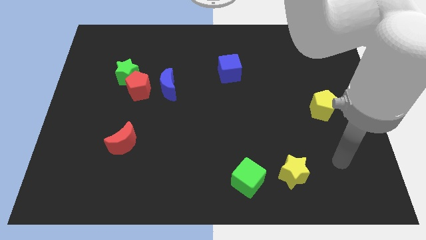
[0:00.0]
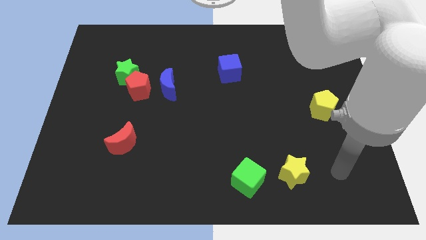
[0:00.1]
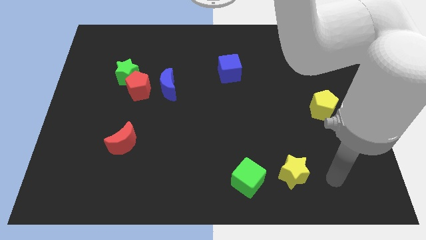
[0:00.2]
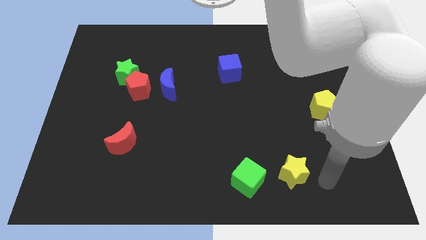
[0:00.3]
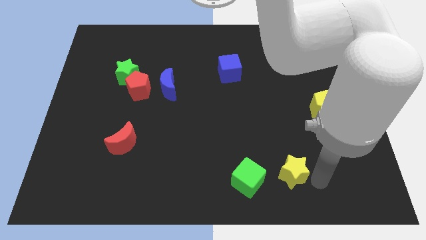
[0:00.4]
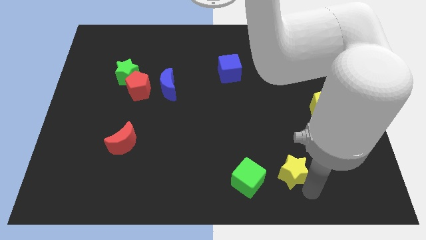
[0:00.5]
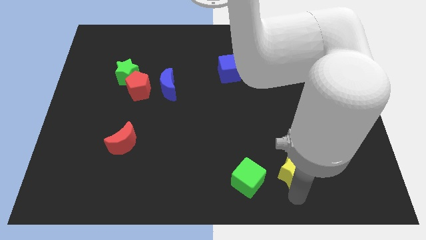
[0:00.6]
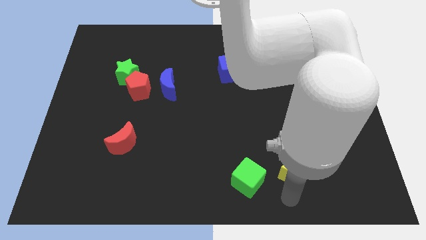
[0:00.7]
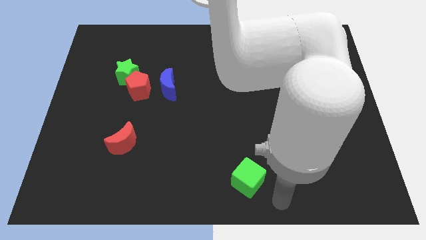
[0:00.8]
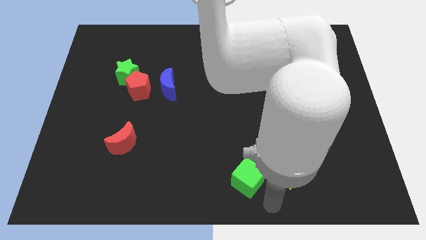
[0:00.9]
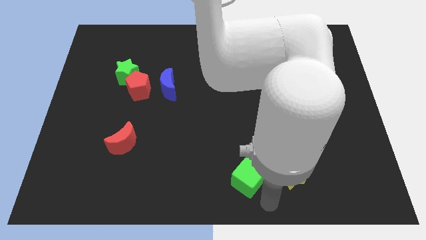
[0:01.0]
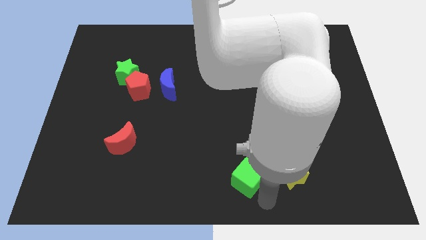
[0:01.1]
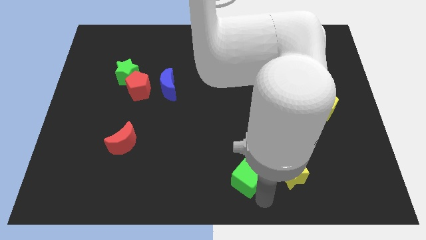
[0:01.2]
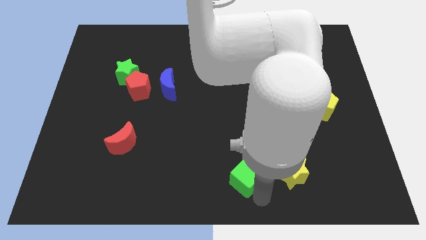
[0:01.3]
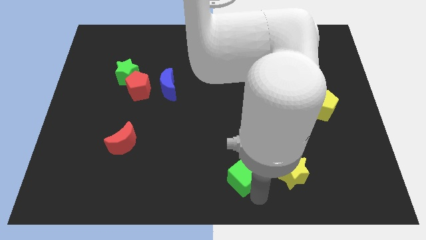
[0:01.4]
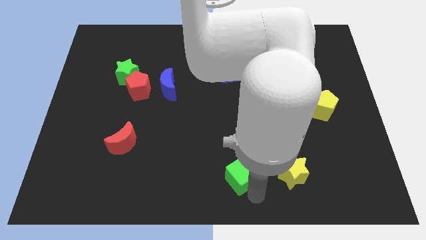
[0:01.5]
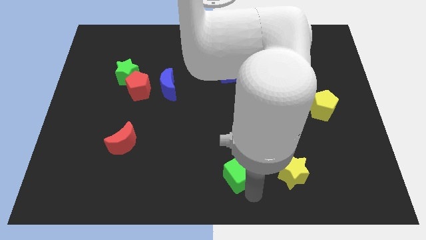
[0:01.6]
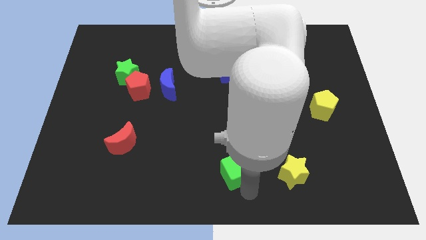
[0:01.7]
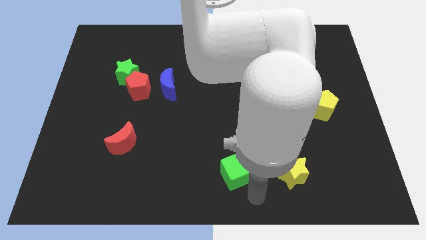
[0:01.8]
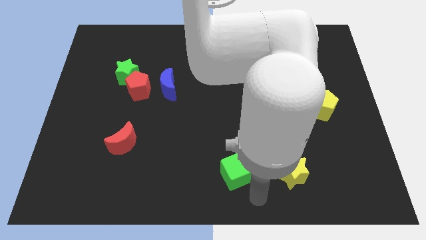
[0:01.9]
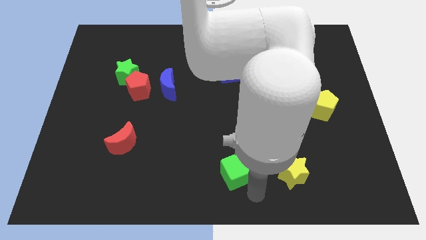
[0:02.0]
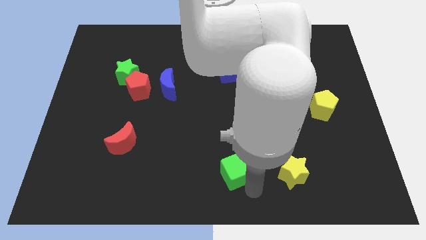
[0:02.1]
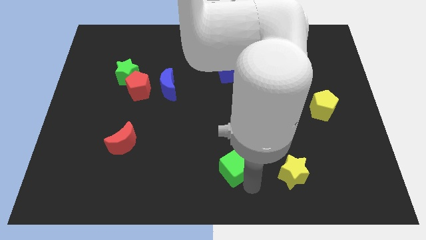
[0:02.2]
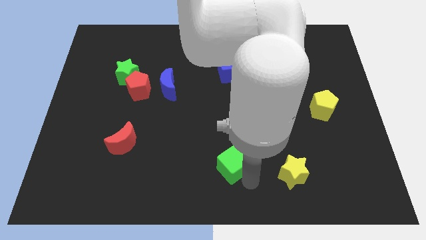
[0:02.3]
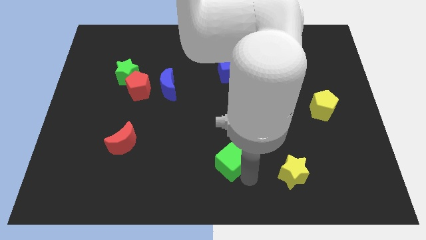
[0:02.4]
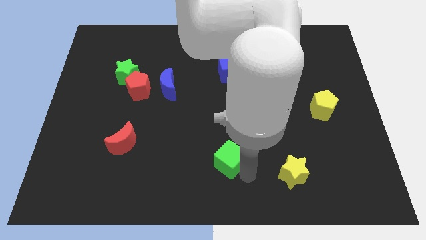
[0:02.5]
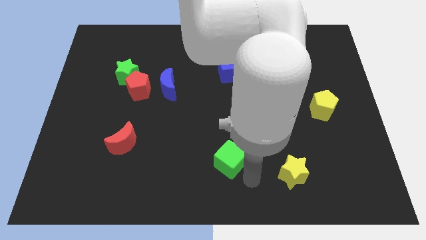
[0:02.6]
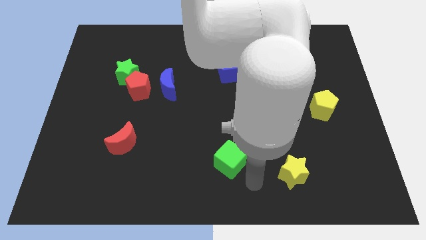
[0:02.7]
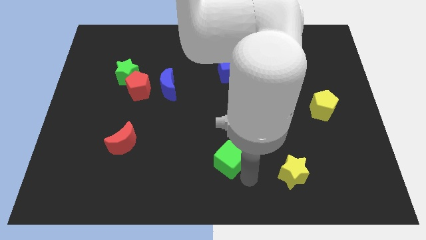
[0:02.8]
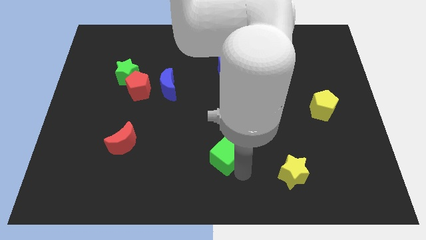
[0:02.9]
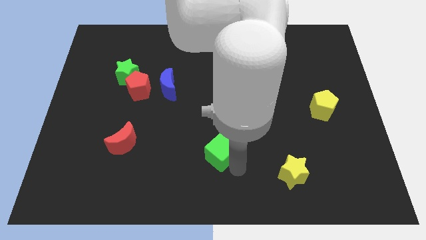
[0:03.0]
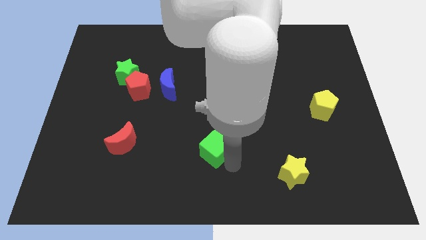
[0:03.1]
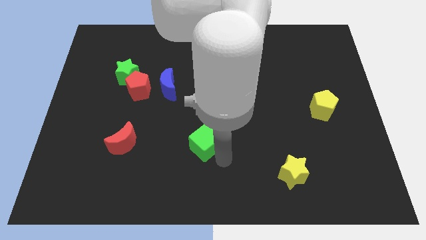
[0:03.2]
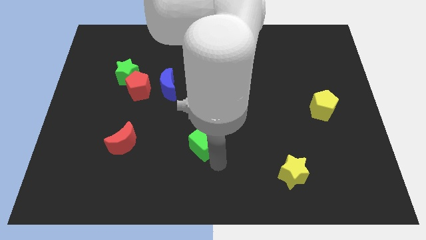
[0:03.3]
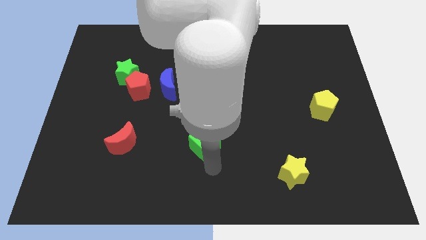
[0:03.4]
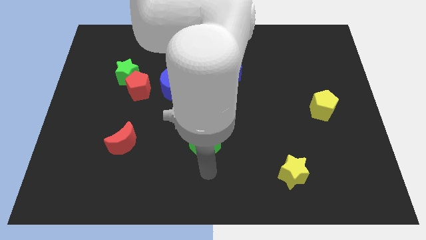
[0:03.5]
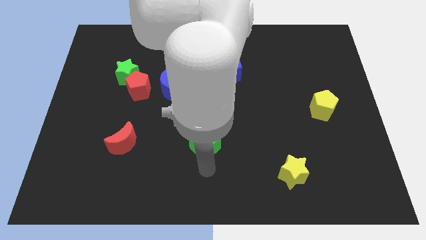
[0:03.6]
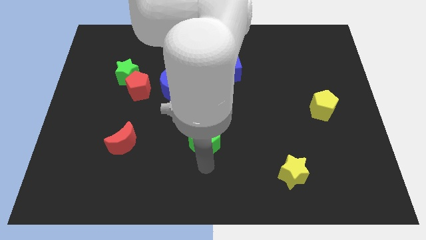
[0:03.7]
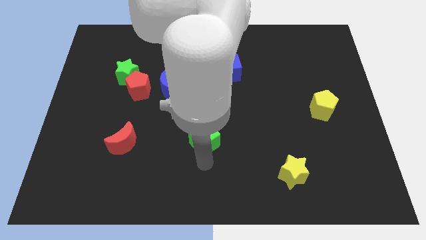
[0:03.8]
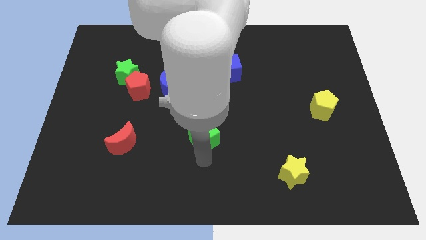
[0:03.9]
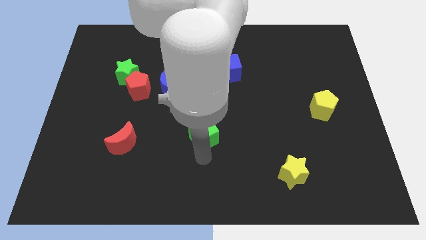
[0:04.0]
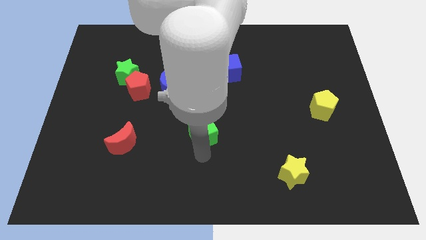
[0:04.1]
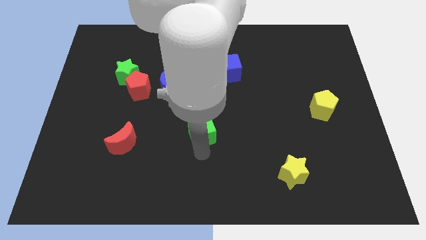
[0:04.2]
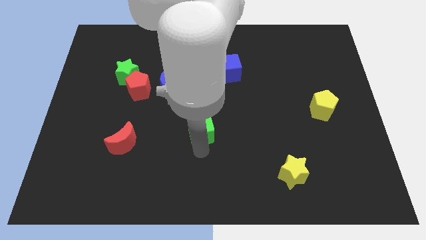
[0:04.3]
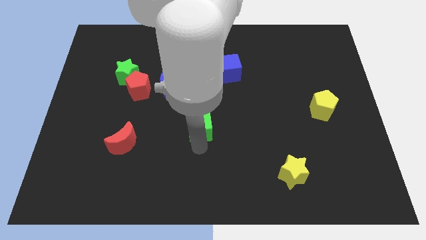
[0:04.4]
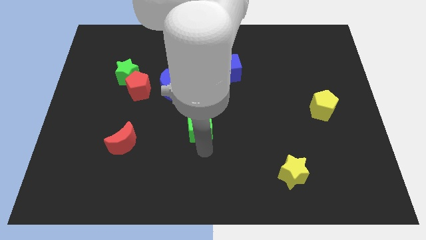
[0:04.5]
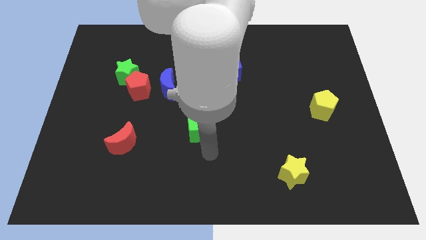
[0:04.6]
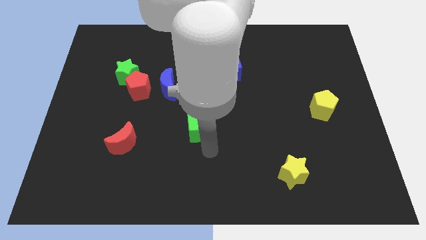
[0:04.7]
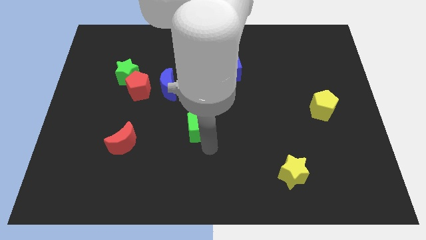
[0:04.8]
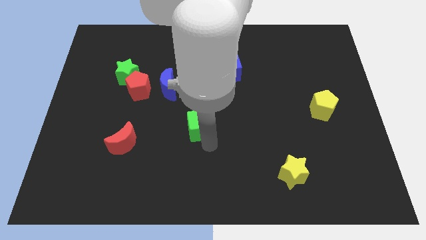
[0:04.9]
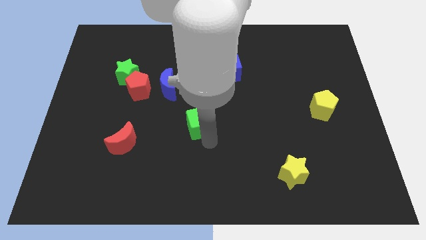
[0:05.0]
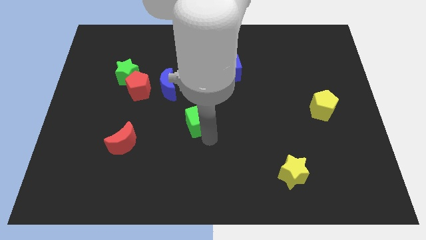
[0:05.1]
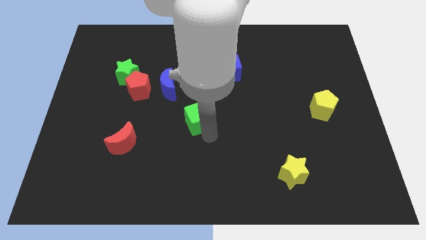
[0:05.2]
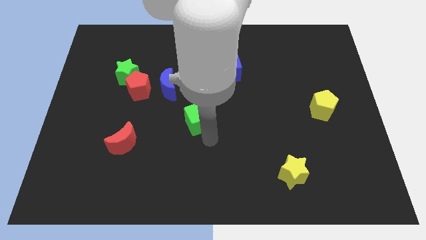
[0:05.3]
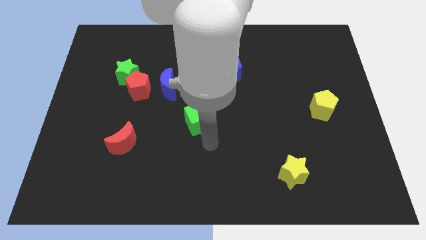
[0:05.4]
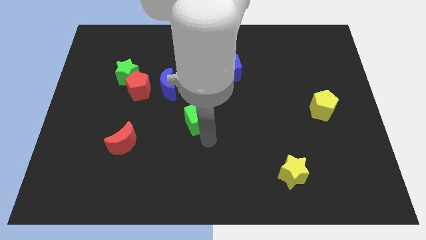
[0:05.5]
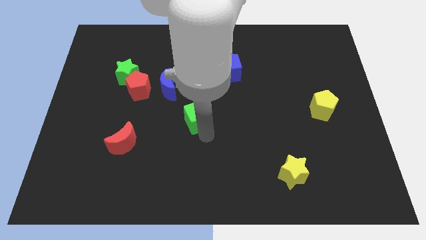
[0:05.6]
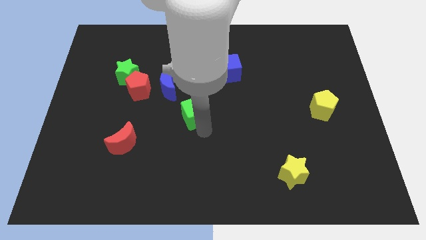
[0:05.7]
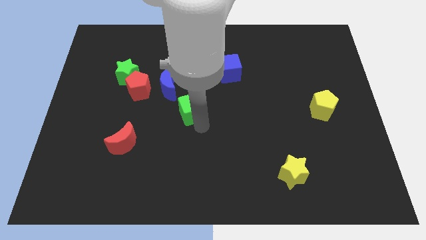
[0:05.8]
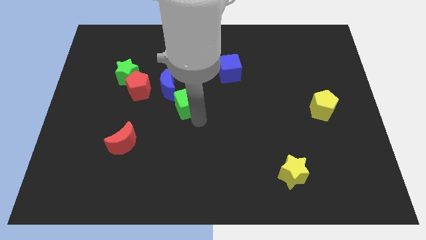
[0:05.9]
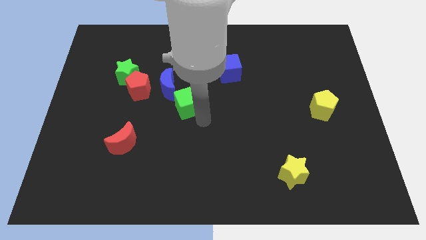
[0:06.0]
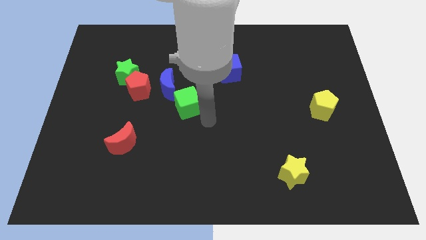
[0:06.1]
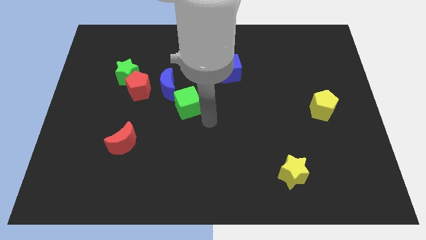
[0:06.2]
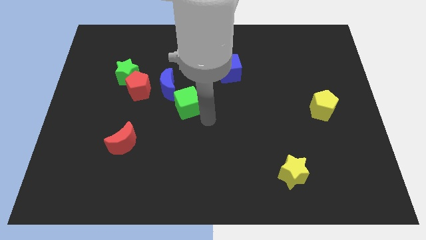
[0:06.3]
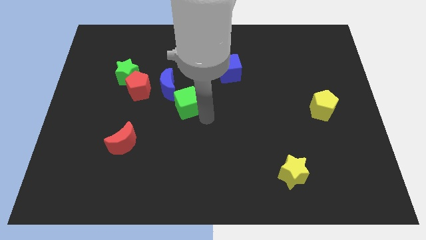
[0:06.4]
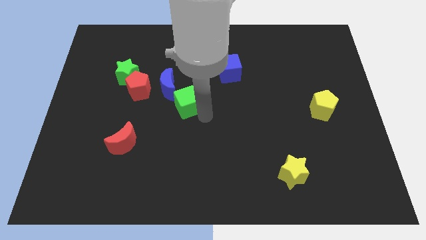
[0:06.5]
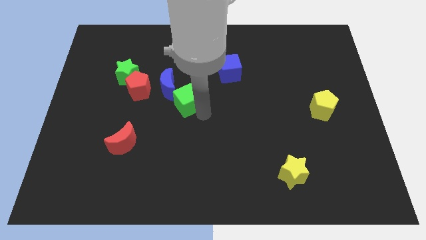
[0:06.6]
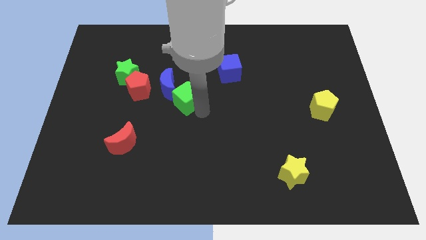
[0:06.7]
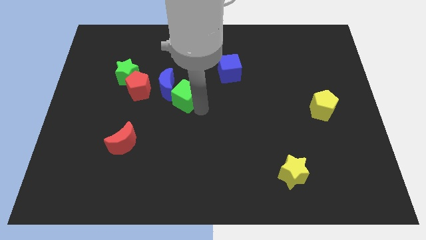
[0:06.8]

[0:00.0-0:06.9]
put the green cube towards the blue moon

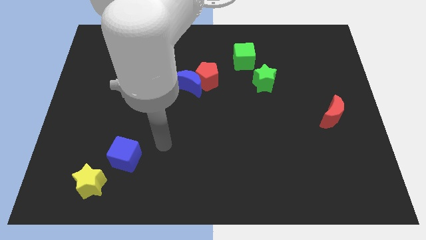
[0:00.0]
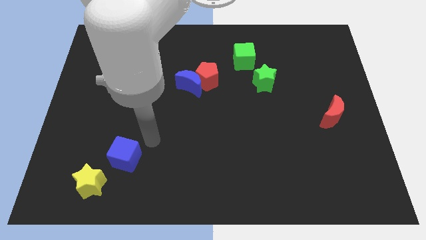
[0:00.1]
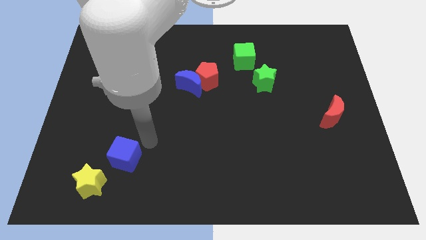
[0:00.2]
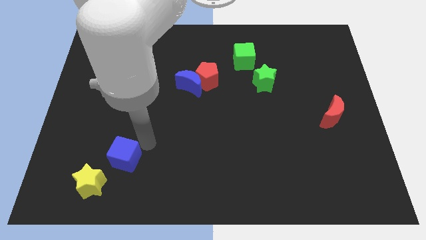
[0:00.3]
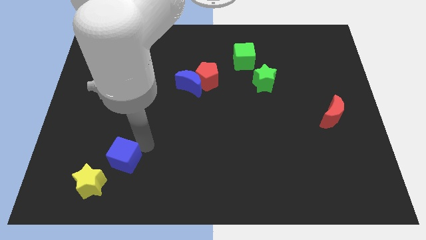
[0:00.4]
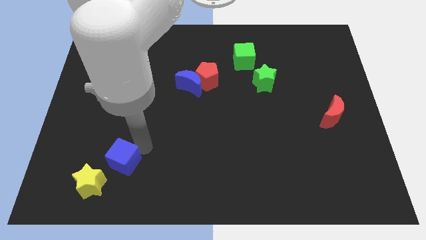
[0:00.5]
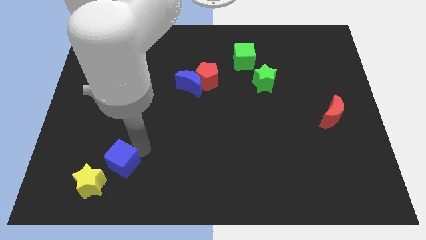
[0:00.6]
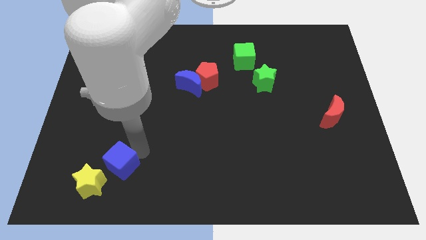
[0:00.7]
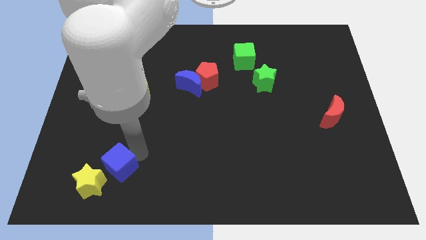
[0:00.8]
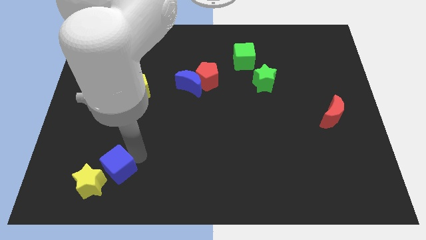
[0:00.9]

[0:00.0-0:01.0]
put the blue cube to the yellow star

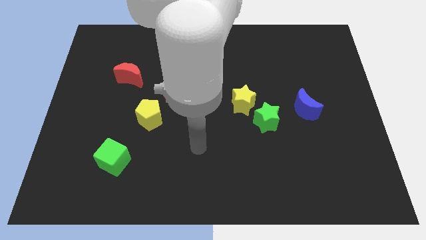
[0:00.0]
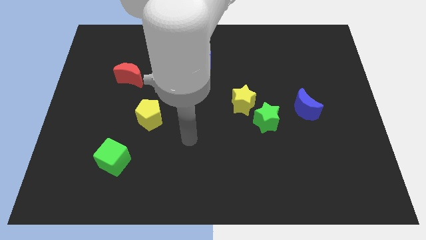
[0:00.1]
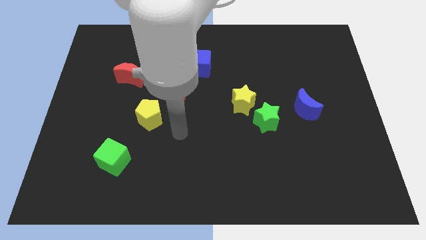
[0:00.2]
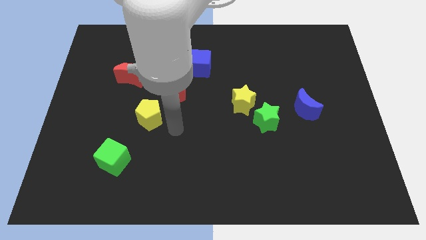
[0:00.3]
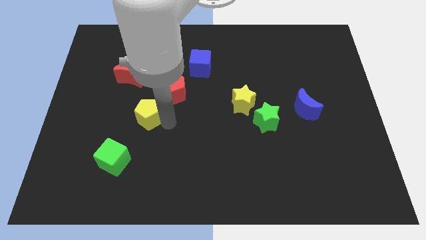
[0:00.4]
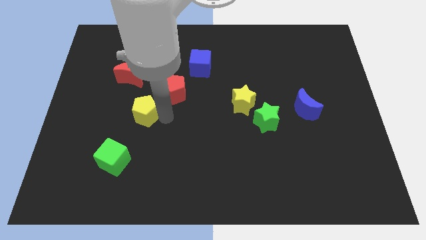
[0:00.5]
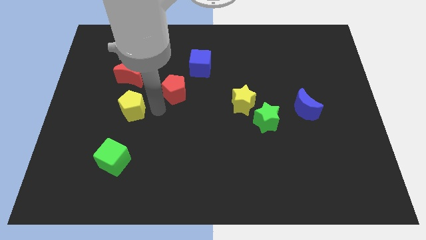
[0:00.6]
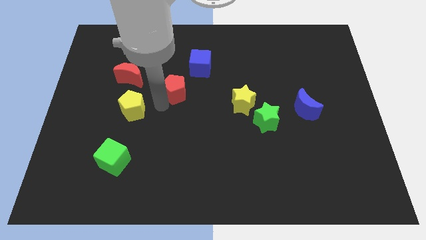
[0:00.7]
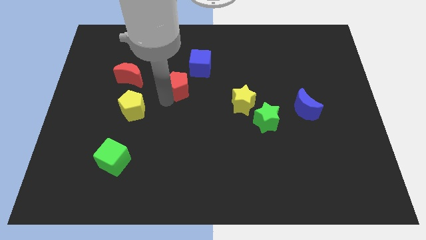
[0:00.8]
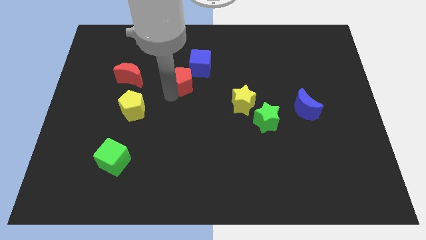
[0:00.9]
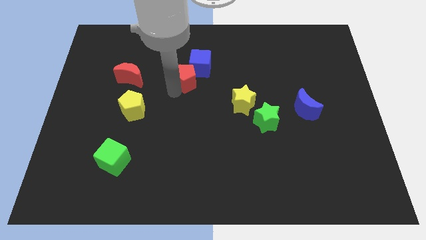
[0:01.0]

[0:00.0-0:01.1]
move the red pentagon next to the blue cube
